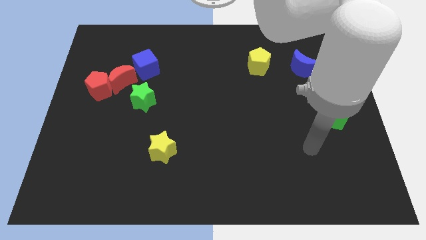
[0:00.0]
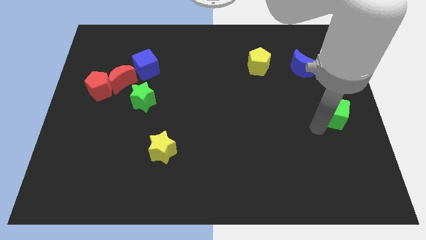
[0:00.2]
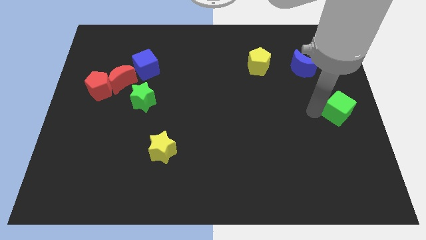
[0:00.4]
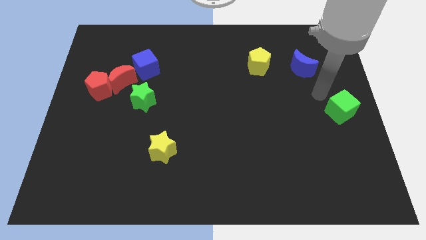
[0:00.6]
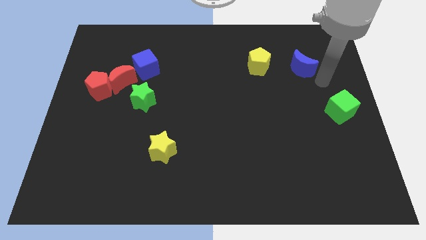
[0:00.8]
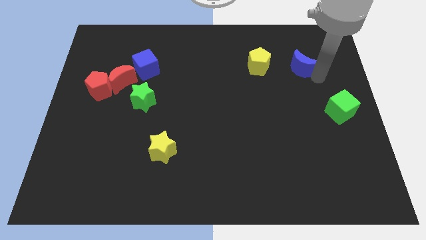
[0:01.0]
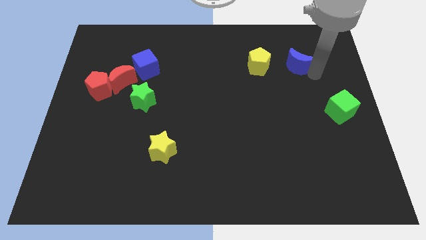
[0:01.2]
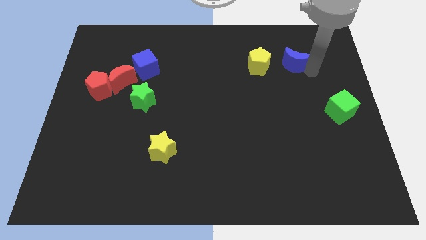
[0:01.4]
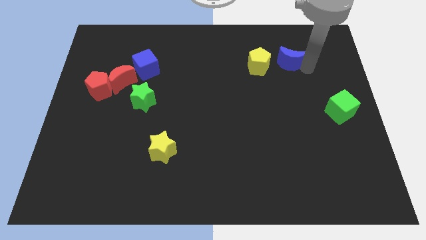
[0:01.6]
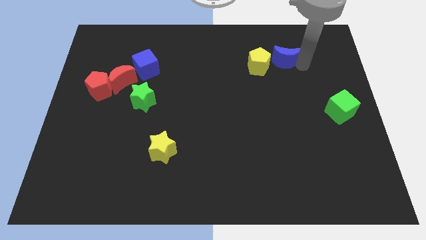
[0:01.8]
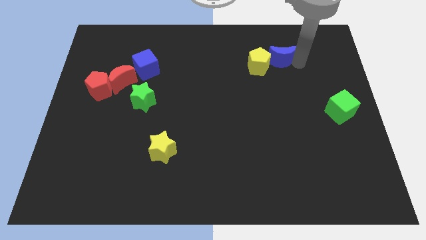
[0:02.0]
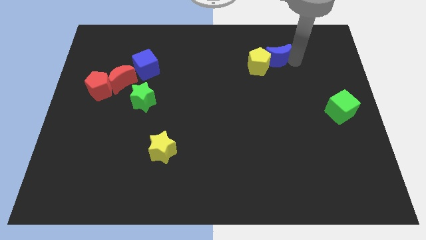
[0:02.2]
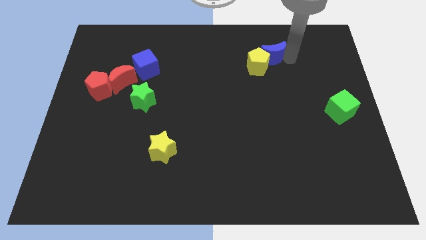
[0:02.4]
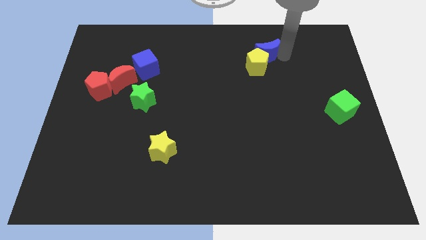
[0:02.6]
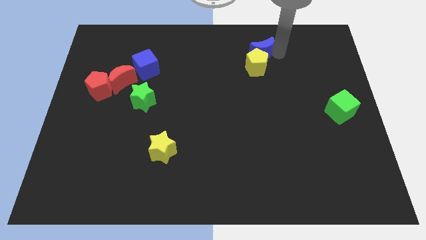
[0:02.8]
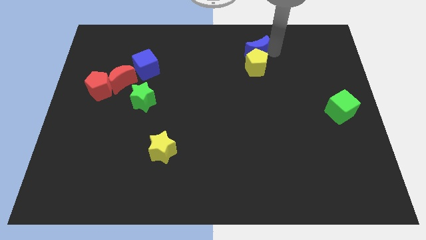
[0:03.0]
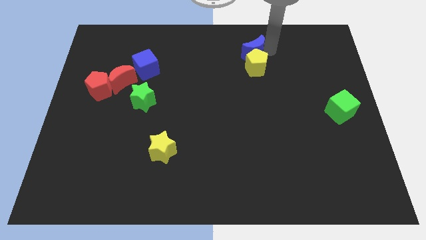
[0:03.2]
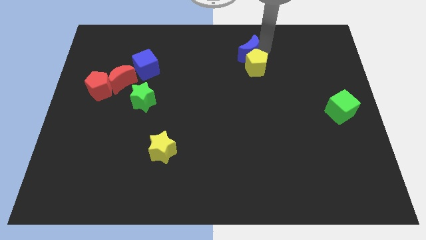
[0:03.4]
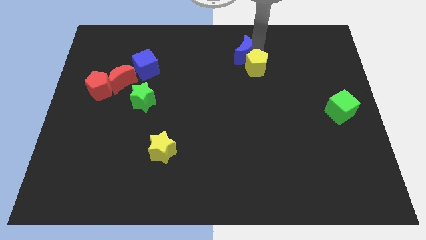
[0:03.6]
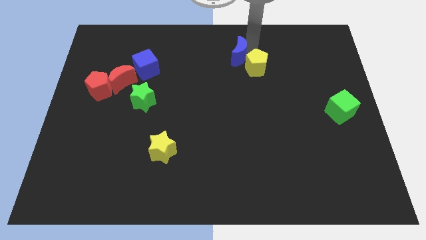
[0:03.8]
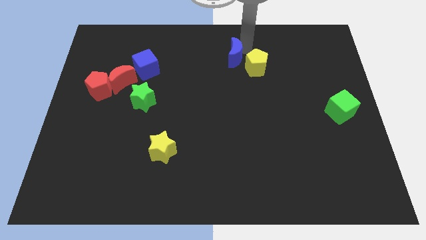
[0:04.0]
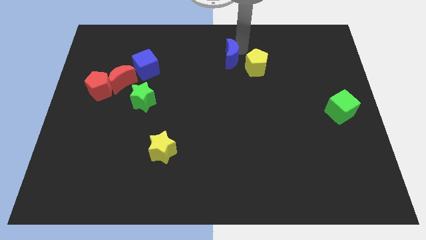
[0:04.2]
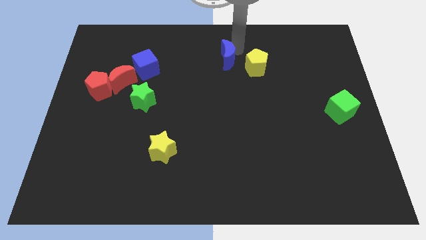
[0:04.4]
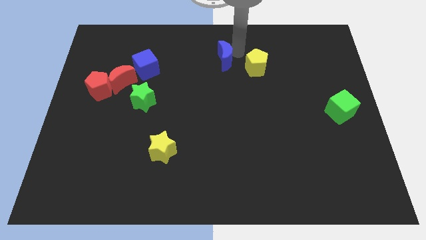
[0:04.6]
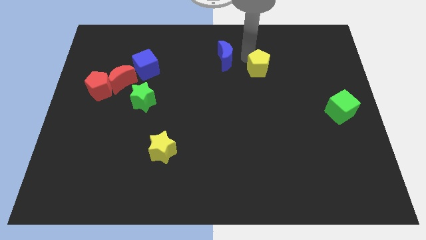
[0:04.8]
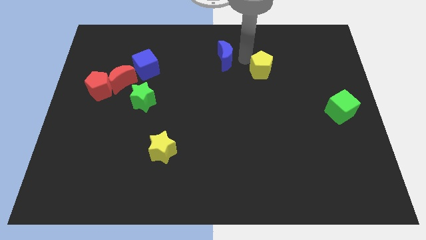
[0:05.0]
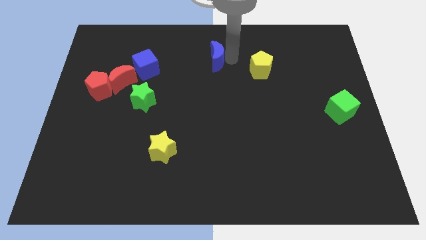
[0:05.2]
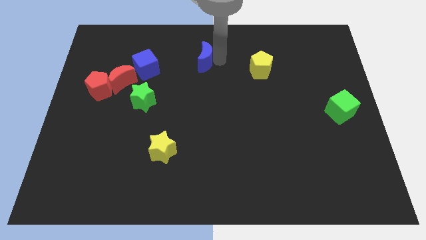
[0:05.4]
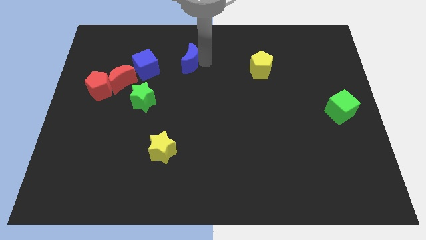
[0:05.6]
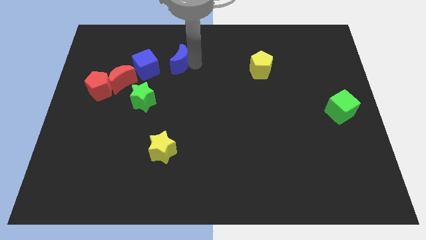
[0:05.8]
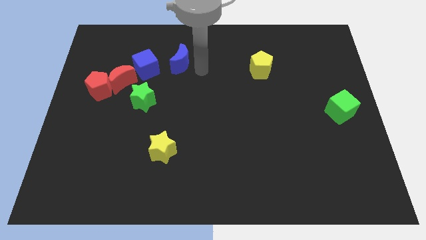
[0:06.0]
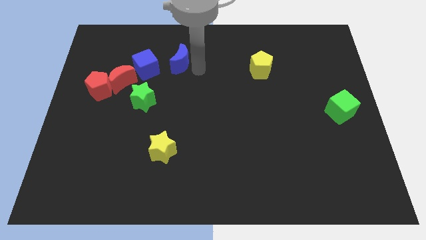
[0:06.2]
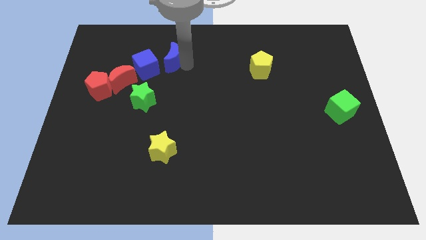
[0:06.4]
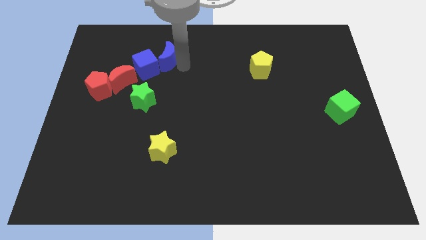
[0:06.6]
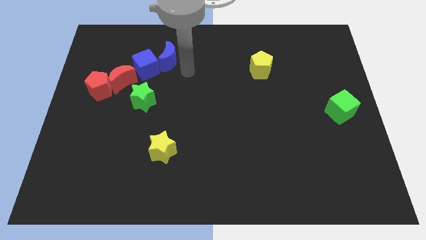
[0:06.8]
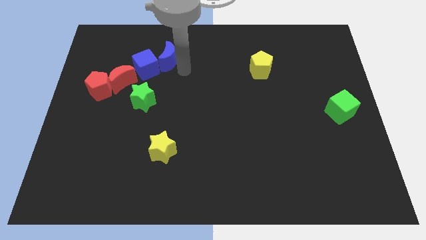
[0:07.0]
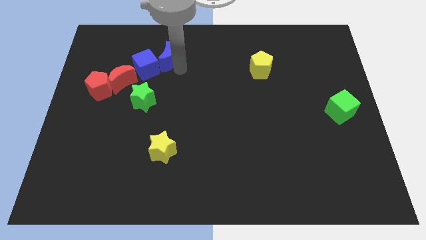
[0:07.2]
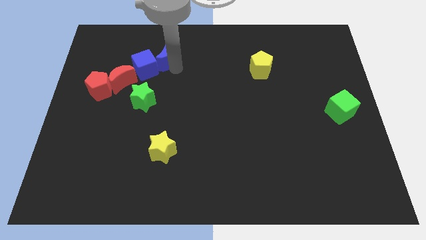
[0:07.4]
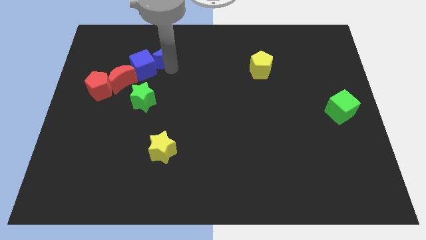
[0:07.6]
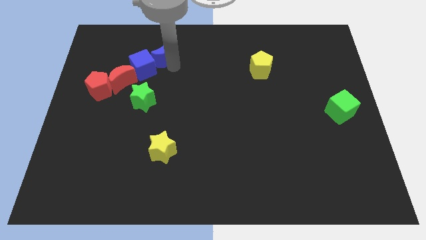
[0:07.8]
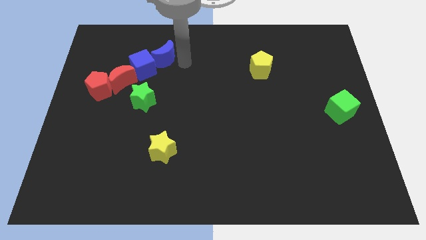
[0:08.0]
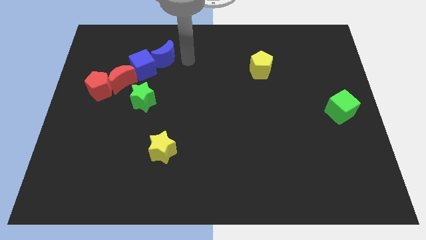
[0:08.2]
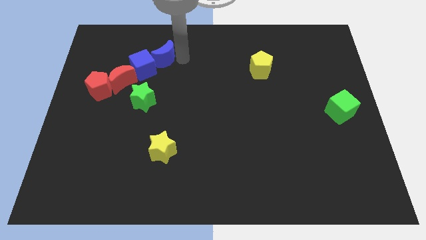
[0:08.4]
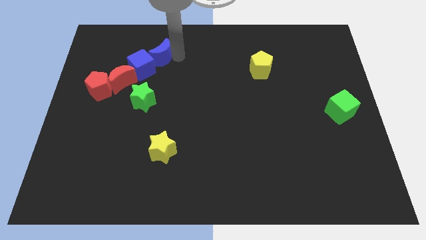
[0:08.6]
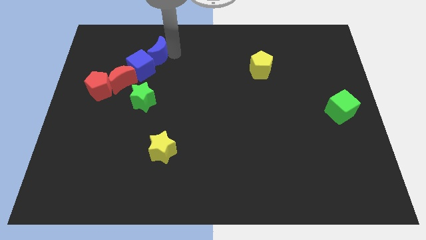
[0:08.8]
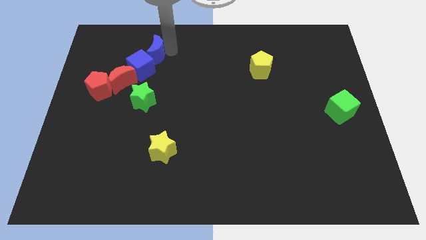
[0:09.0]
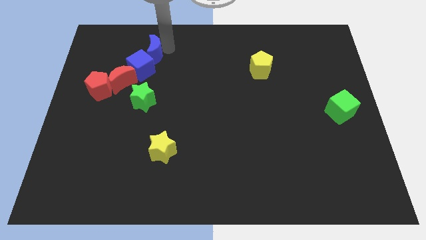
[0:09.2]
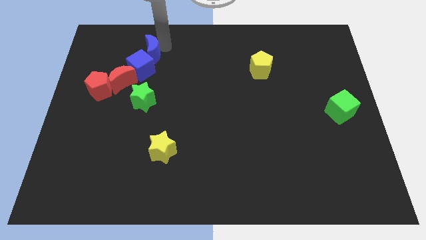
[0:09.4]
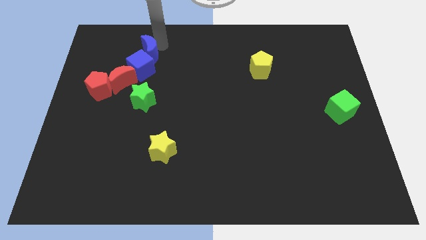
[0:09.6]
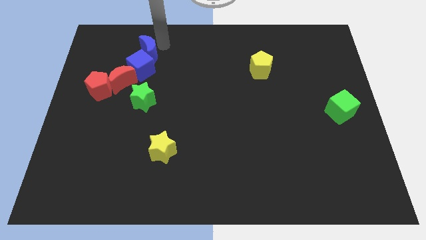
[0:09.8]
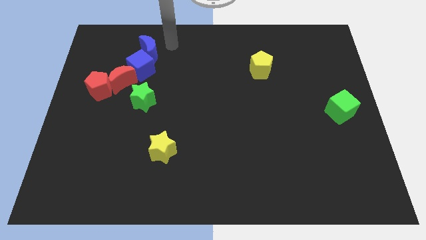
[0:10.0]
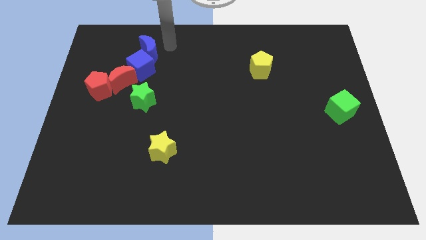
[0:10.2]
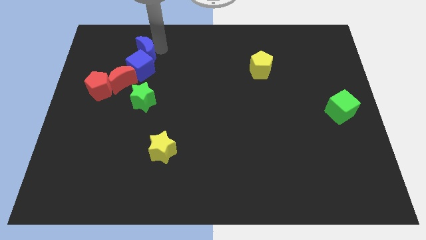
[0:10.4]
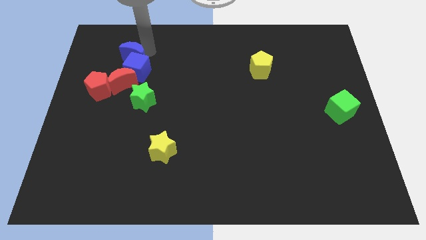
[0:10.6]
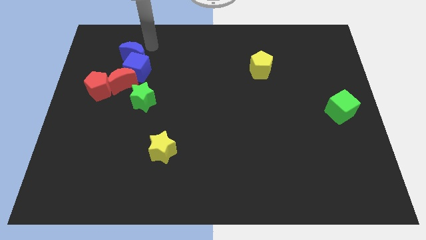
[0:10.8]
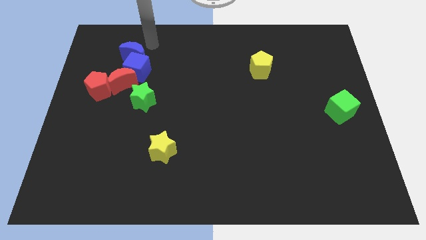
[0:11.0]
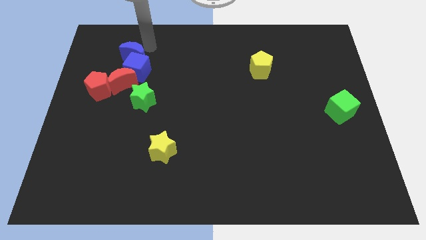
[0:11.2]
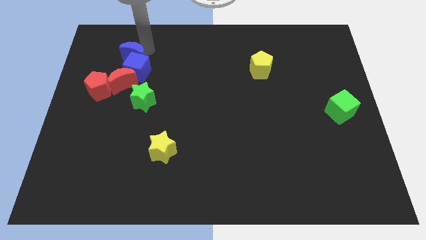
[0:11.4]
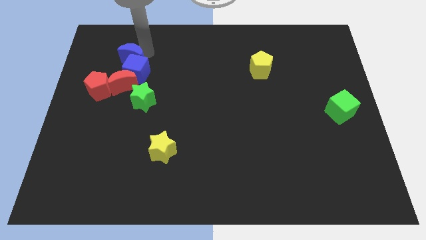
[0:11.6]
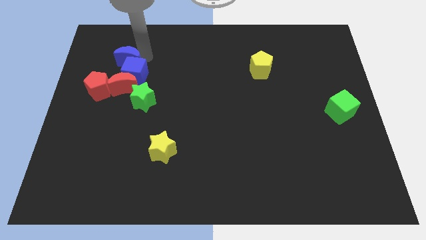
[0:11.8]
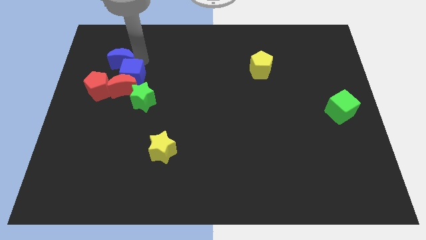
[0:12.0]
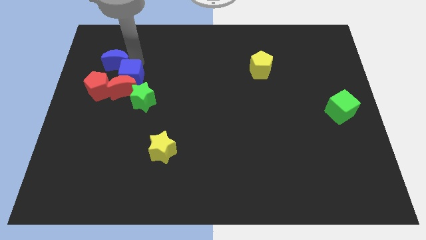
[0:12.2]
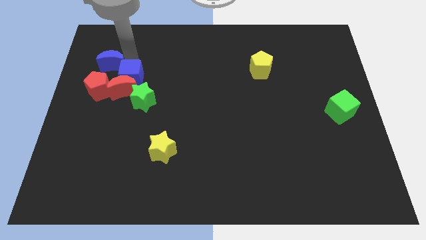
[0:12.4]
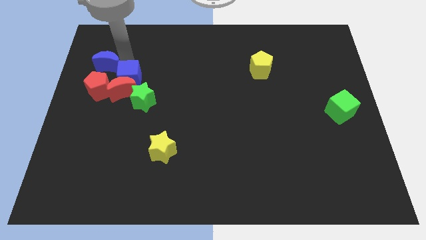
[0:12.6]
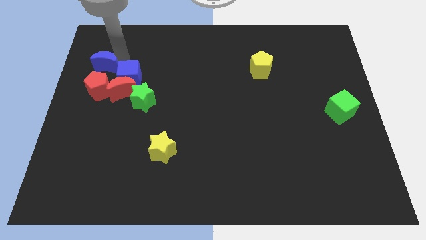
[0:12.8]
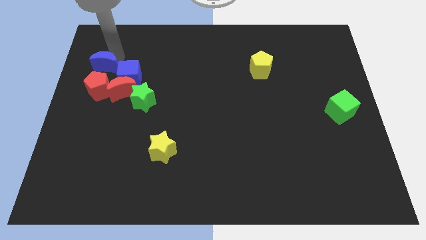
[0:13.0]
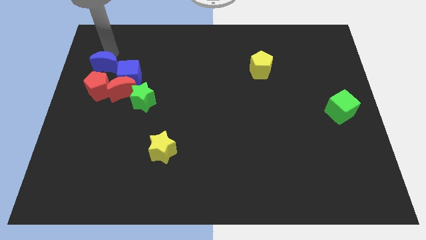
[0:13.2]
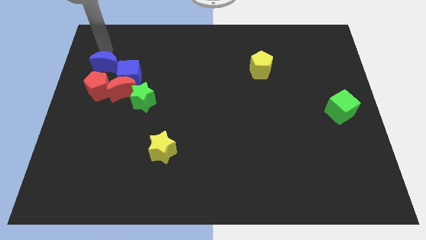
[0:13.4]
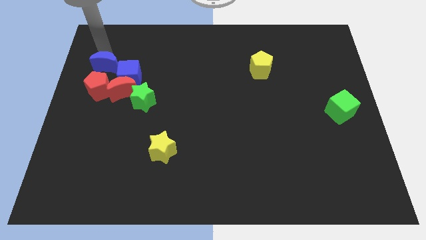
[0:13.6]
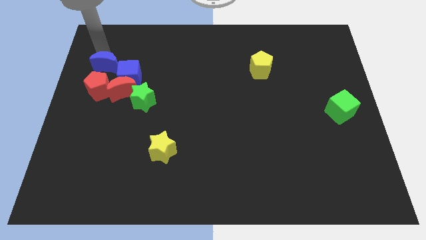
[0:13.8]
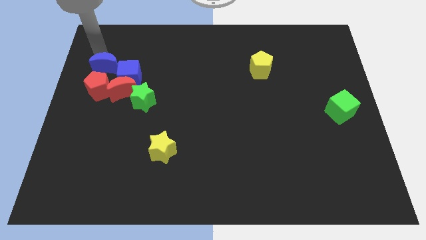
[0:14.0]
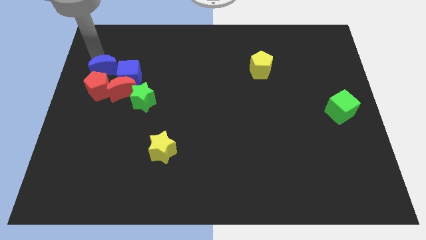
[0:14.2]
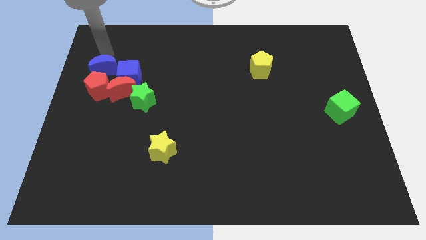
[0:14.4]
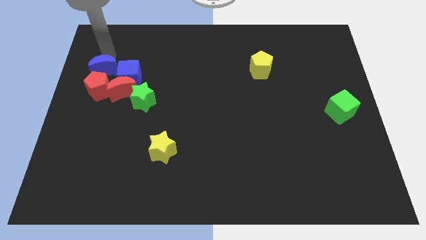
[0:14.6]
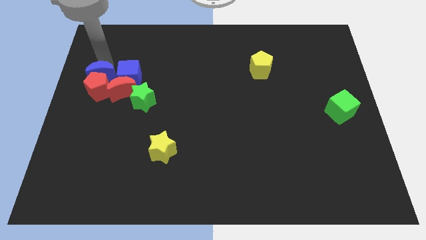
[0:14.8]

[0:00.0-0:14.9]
slide the blue moon towards the red pentagon

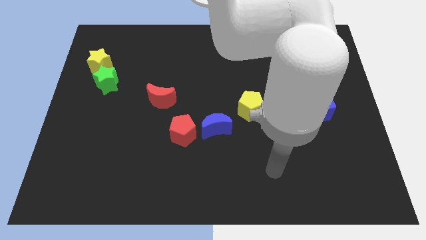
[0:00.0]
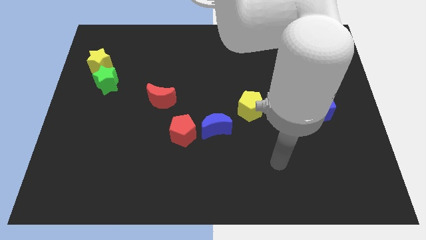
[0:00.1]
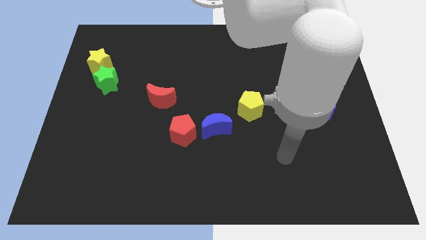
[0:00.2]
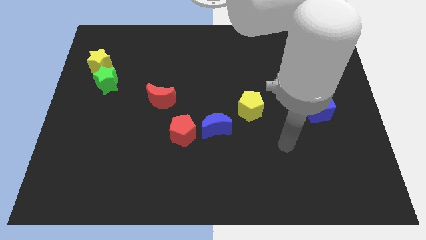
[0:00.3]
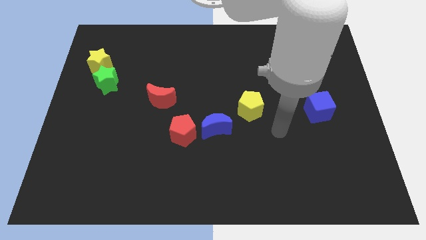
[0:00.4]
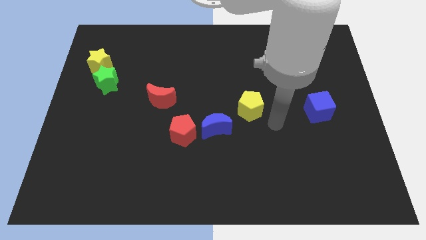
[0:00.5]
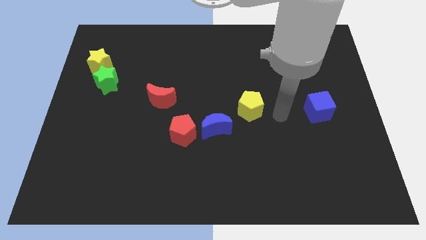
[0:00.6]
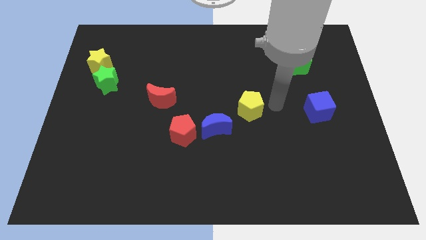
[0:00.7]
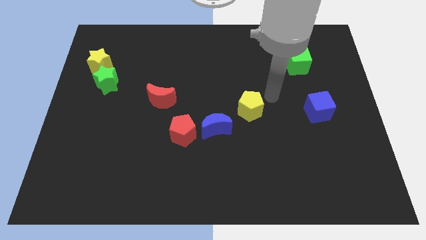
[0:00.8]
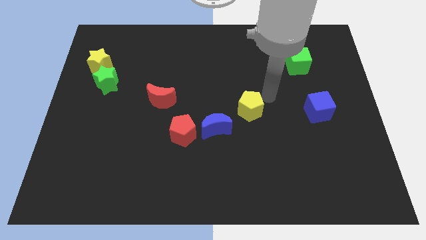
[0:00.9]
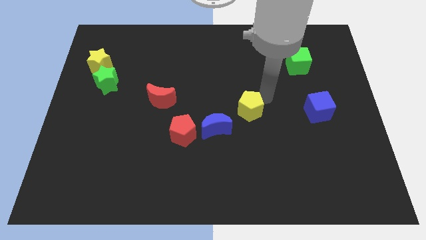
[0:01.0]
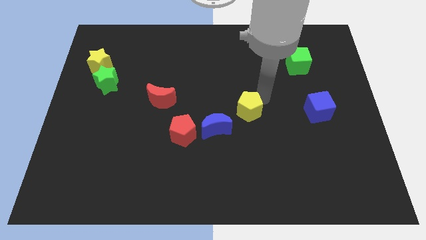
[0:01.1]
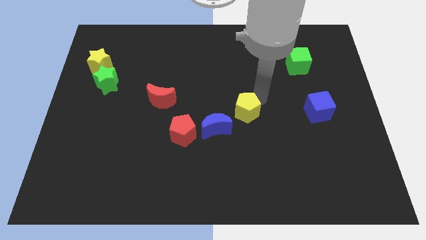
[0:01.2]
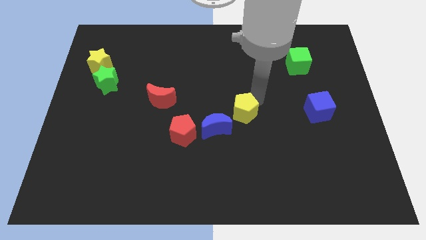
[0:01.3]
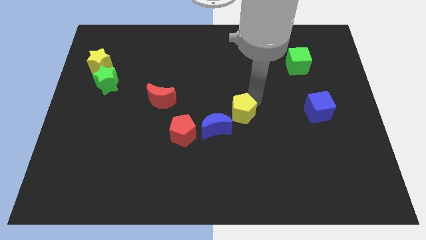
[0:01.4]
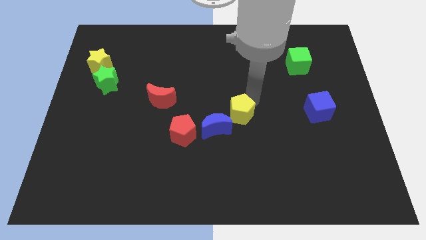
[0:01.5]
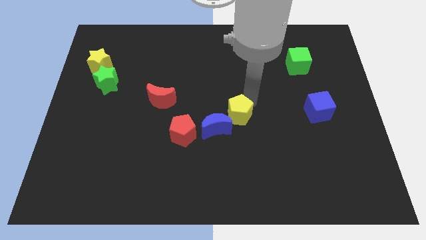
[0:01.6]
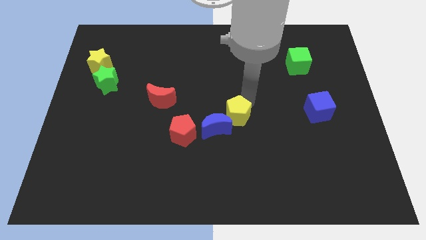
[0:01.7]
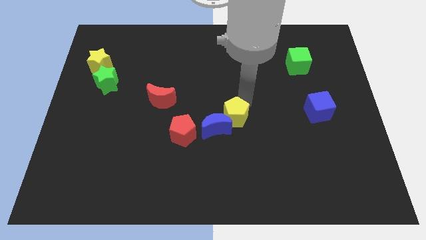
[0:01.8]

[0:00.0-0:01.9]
put the yellow pentagon to the blue moon
